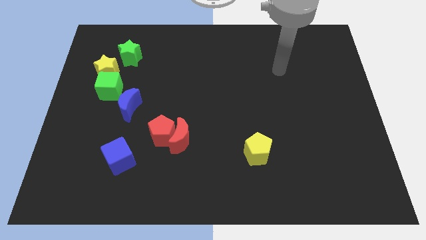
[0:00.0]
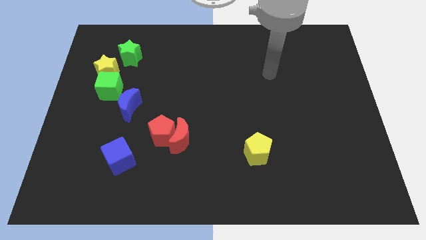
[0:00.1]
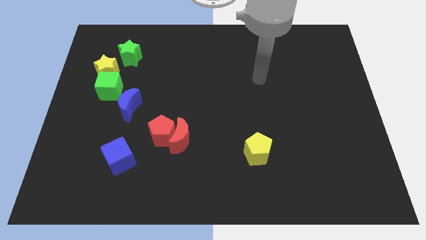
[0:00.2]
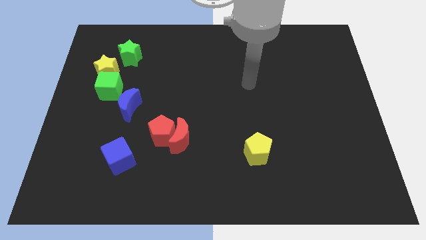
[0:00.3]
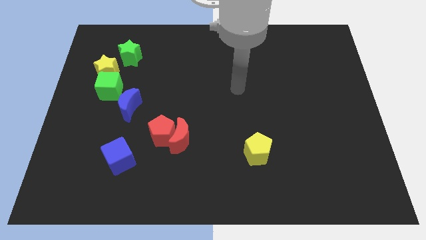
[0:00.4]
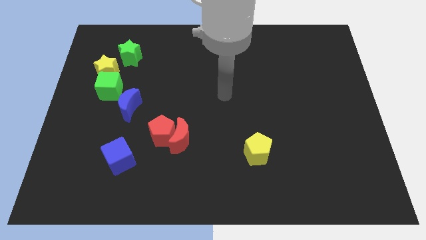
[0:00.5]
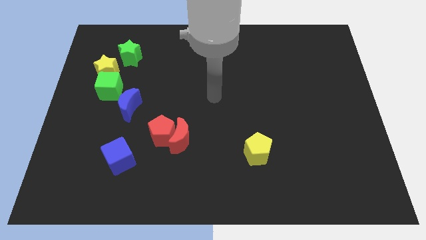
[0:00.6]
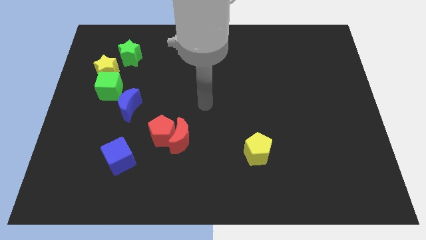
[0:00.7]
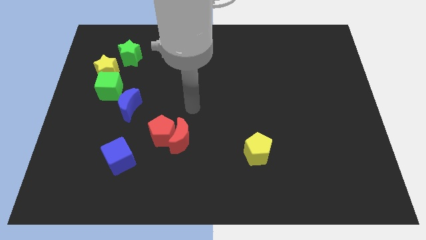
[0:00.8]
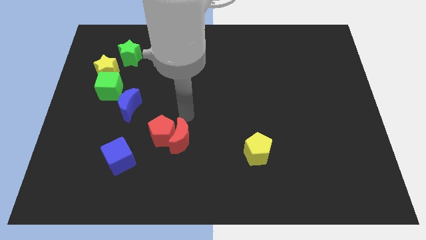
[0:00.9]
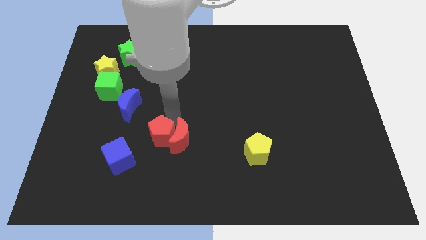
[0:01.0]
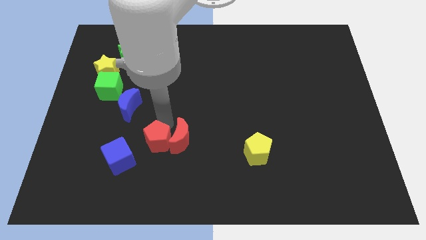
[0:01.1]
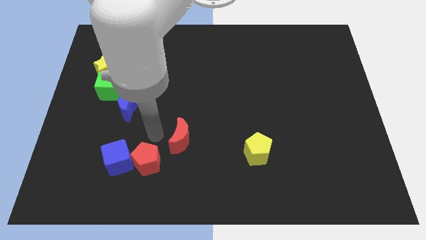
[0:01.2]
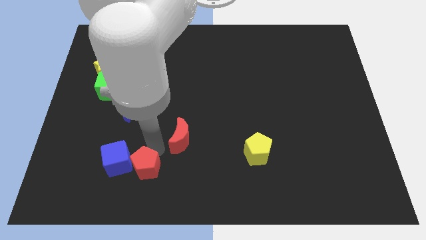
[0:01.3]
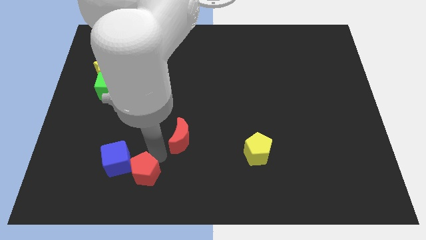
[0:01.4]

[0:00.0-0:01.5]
pull the red moon apart from the red pentagon

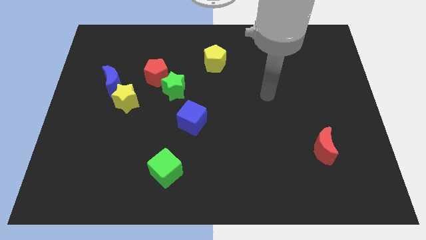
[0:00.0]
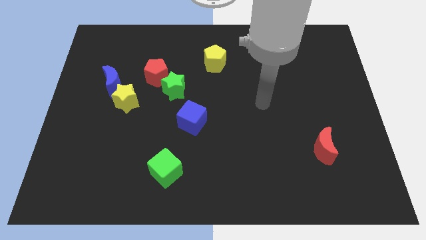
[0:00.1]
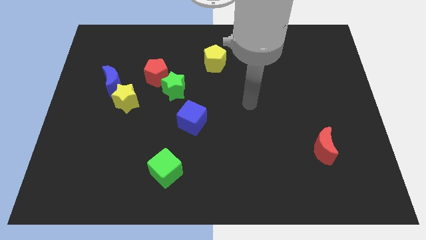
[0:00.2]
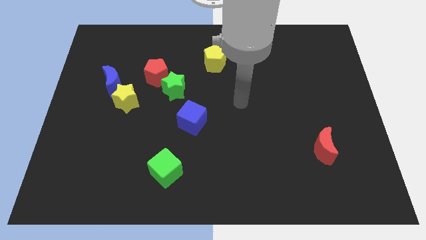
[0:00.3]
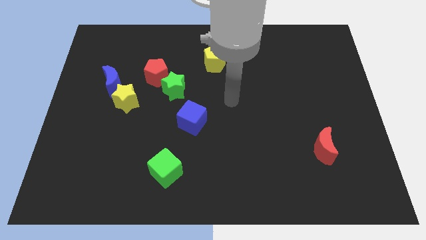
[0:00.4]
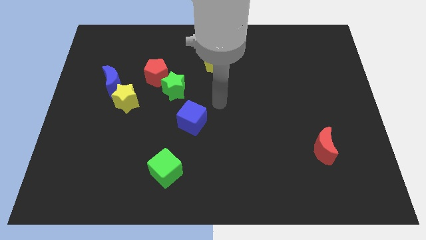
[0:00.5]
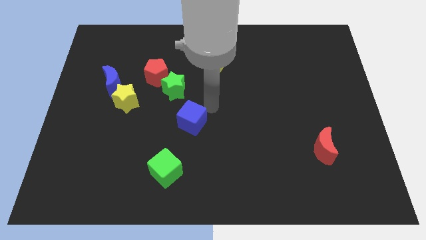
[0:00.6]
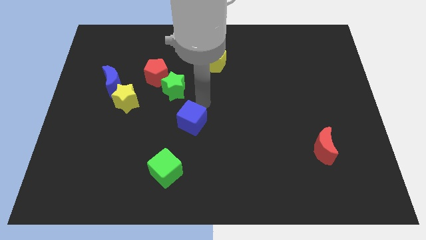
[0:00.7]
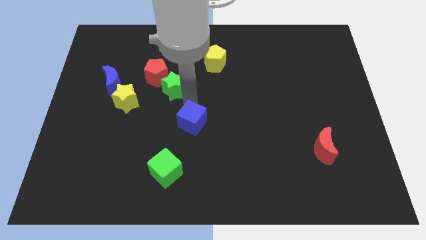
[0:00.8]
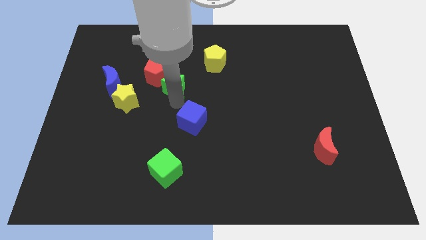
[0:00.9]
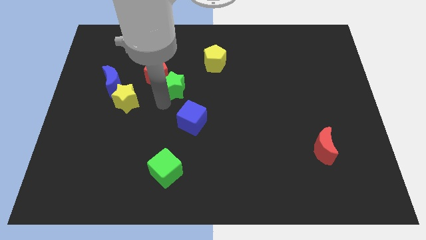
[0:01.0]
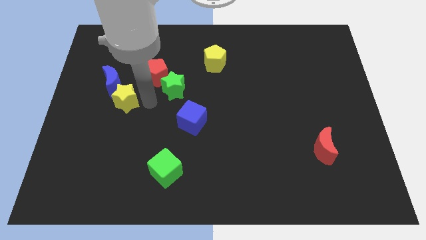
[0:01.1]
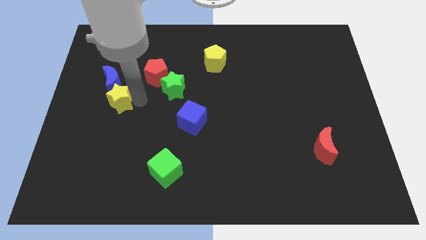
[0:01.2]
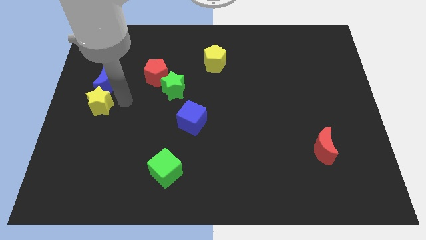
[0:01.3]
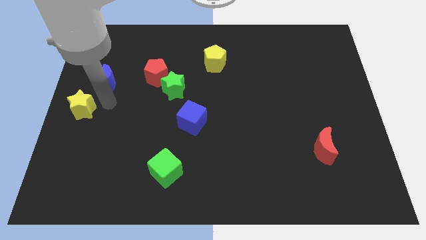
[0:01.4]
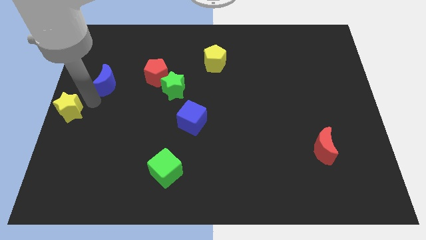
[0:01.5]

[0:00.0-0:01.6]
pull the blue moon apart from the yellow star

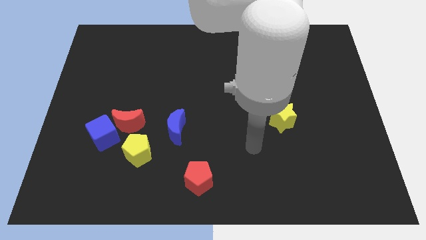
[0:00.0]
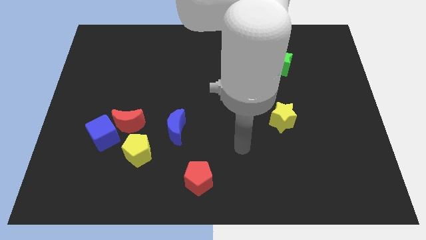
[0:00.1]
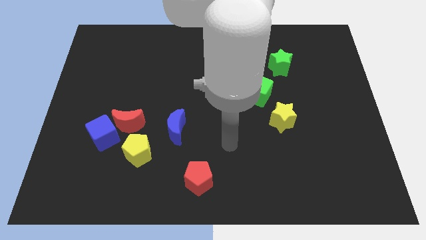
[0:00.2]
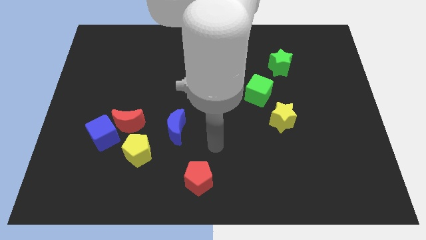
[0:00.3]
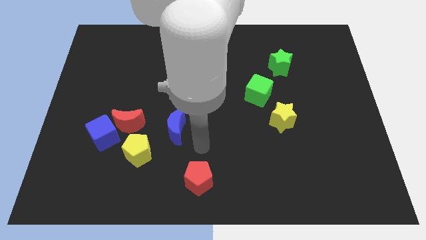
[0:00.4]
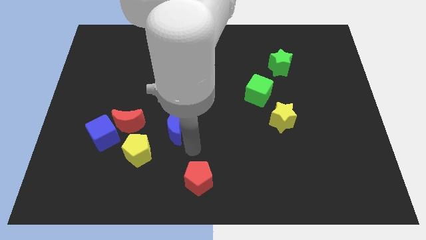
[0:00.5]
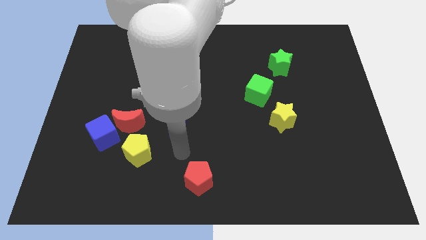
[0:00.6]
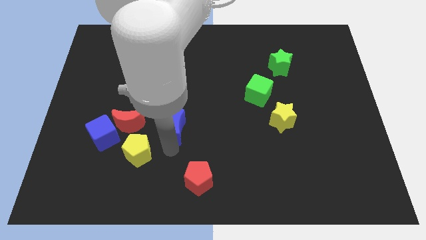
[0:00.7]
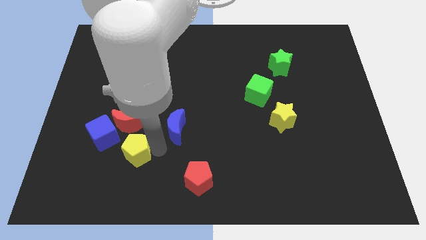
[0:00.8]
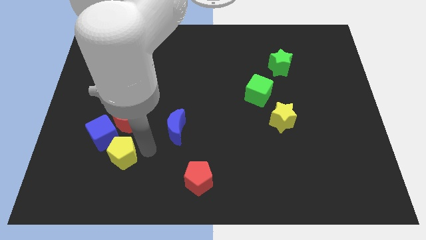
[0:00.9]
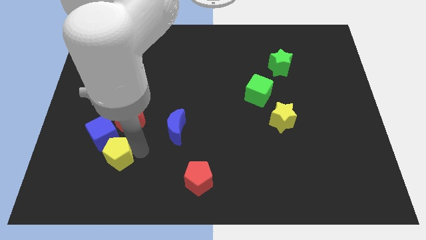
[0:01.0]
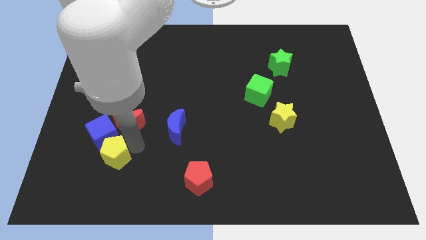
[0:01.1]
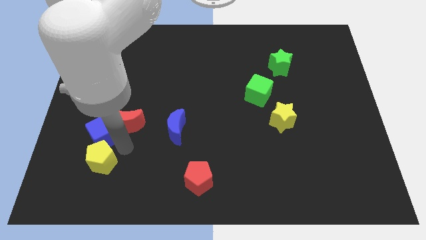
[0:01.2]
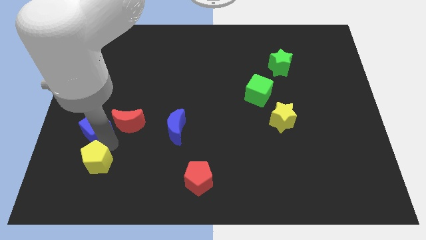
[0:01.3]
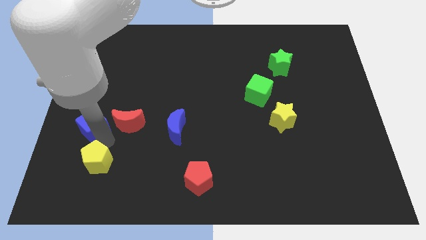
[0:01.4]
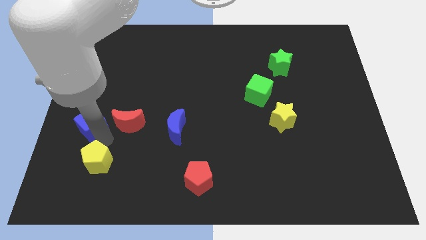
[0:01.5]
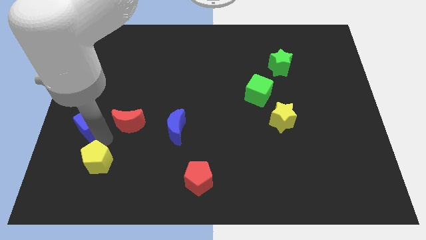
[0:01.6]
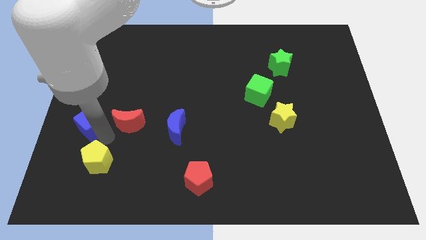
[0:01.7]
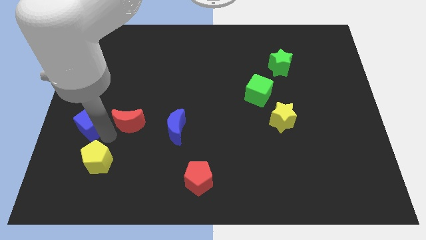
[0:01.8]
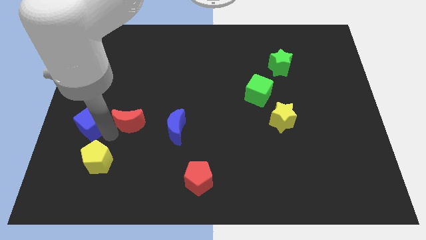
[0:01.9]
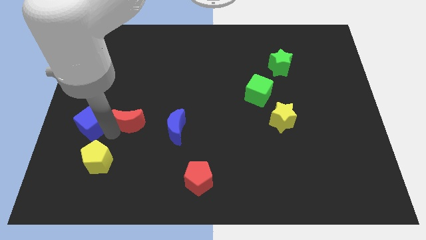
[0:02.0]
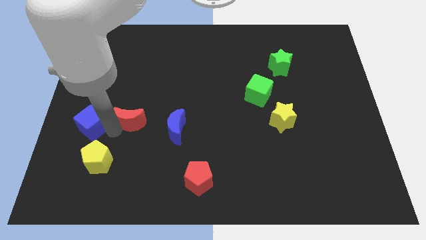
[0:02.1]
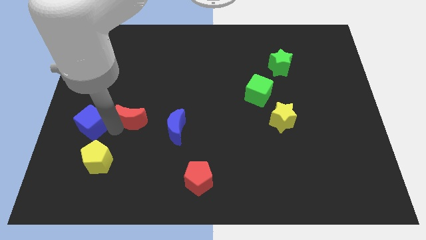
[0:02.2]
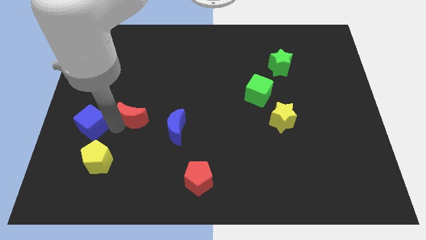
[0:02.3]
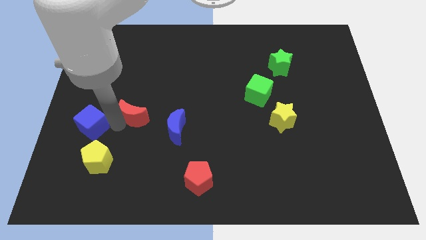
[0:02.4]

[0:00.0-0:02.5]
move the red moon away from the blue cube and yellow pentagon

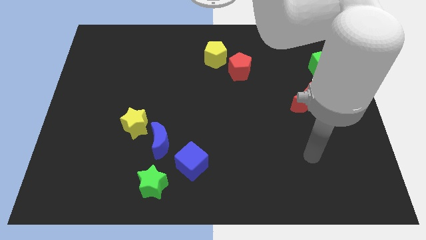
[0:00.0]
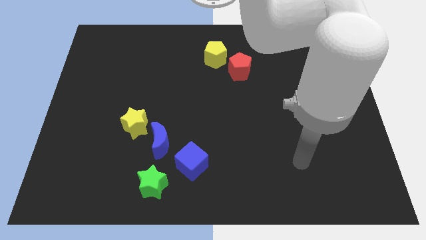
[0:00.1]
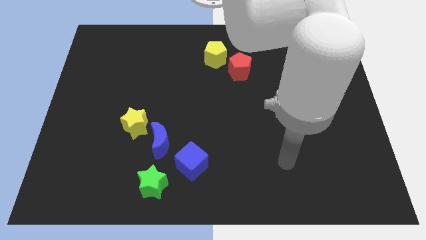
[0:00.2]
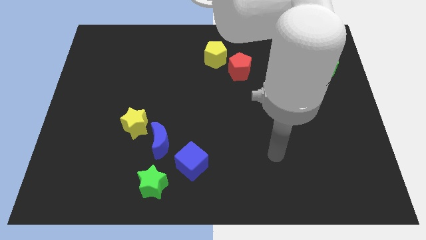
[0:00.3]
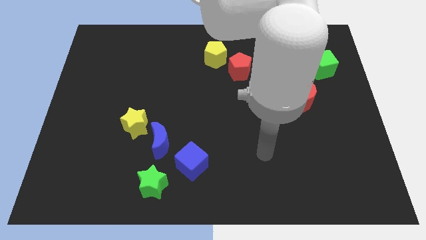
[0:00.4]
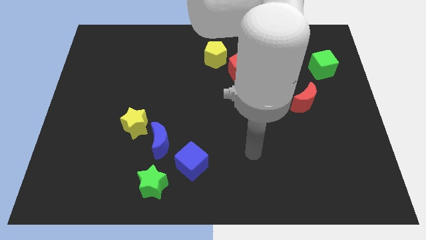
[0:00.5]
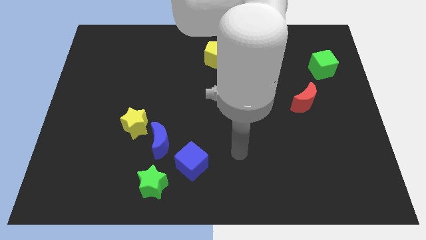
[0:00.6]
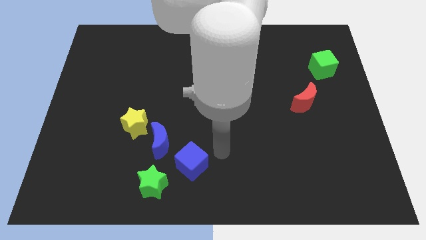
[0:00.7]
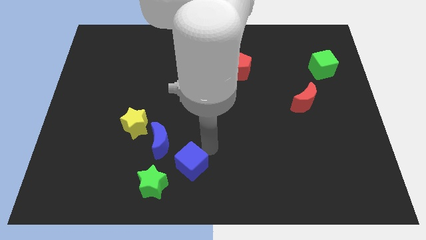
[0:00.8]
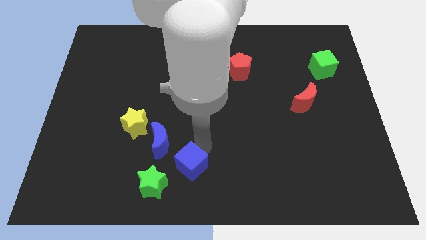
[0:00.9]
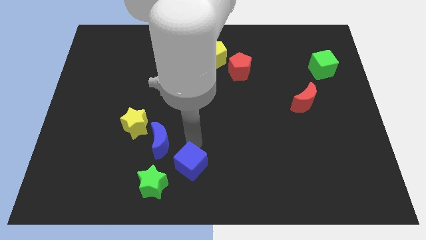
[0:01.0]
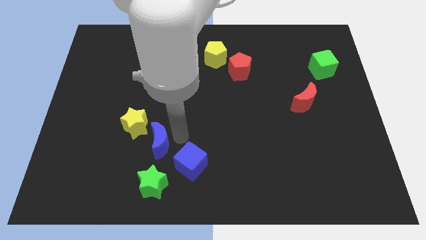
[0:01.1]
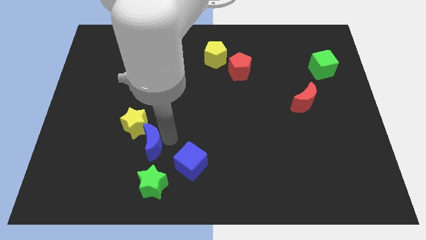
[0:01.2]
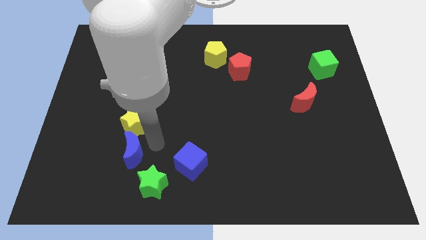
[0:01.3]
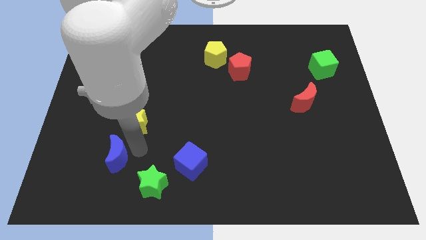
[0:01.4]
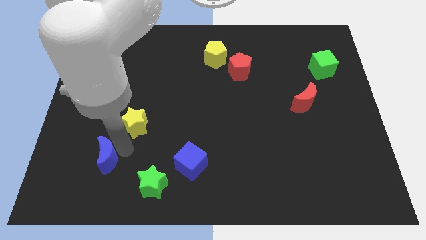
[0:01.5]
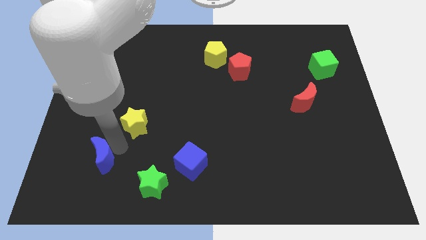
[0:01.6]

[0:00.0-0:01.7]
pull the yellow star apart from the blue moon

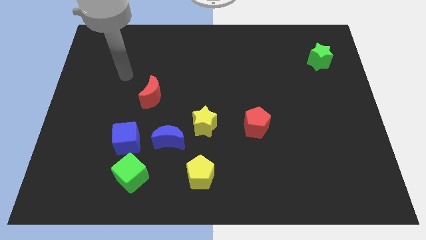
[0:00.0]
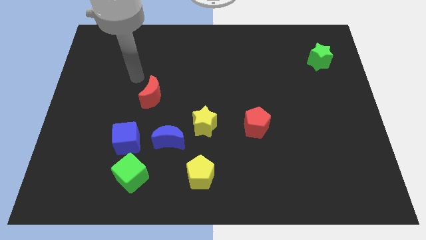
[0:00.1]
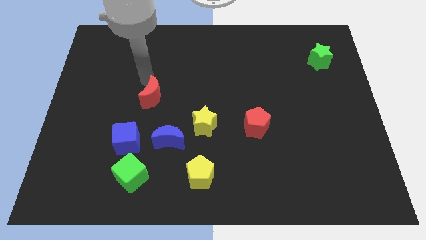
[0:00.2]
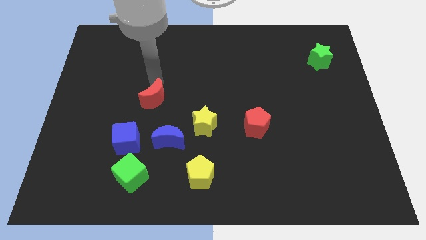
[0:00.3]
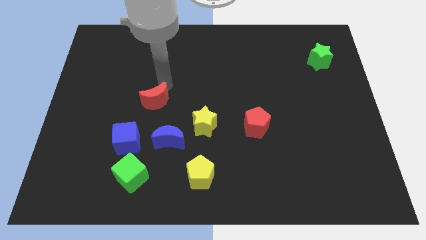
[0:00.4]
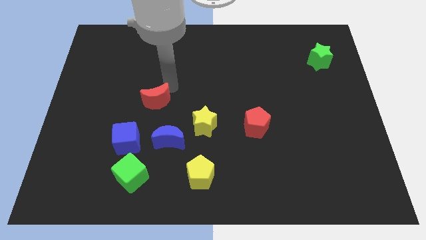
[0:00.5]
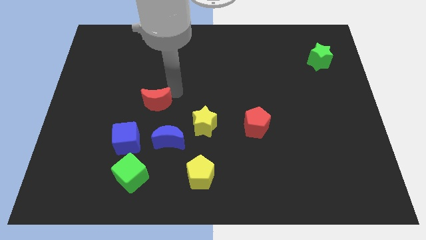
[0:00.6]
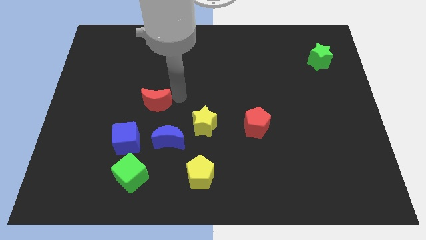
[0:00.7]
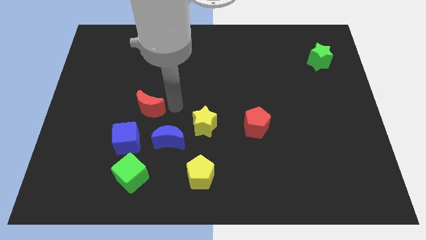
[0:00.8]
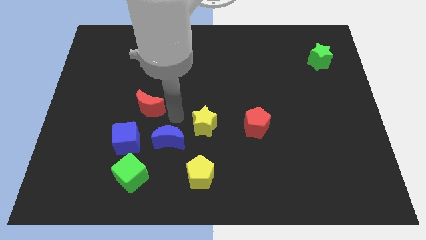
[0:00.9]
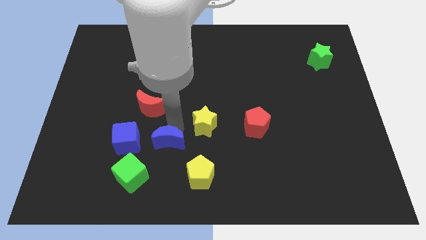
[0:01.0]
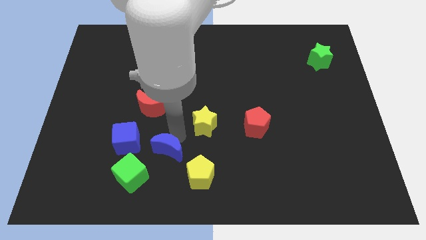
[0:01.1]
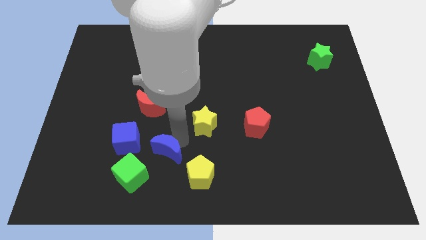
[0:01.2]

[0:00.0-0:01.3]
separate the yellow star from the blue moon

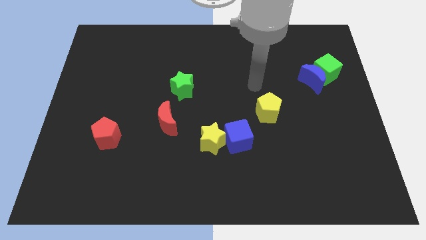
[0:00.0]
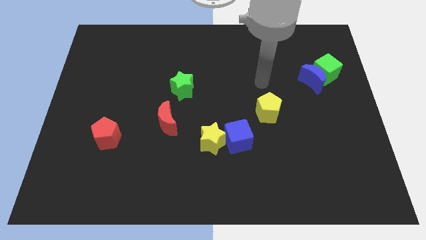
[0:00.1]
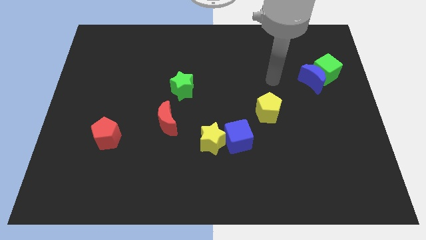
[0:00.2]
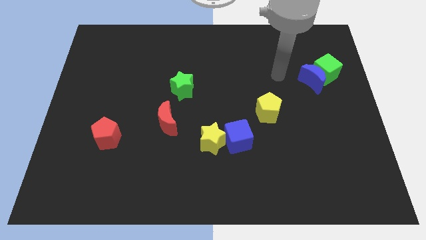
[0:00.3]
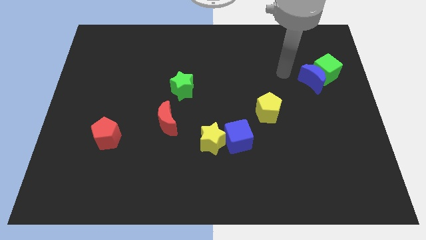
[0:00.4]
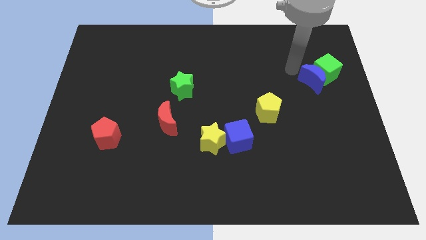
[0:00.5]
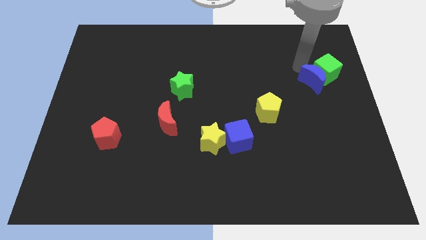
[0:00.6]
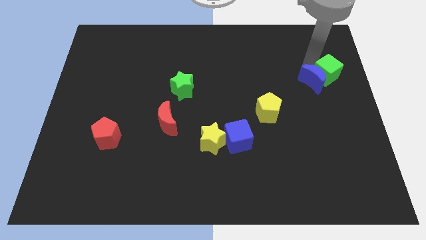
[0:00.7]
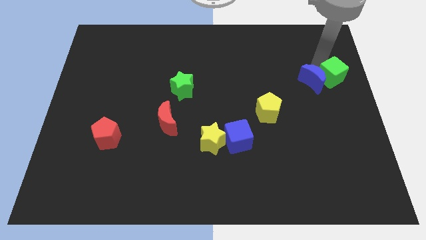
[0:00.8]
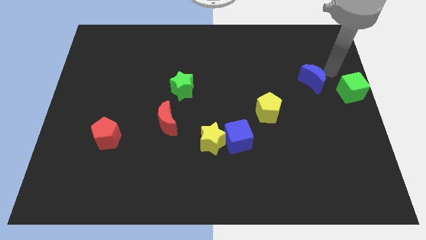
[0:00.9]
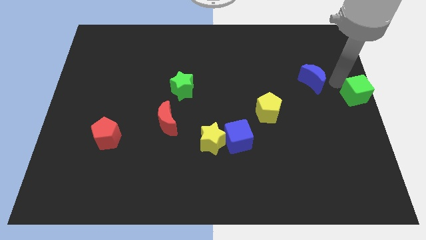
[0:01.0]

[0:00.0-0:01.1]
pull the blue moon apart from the green cube
